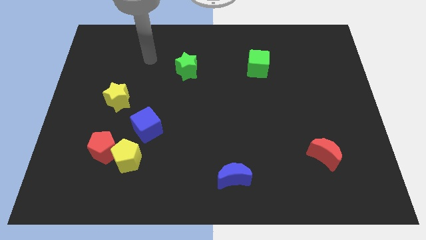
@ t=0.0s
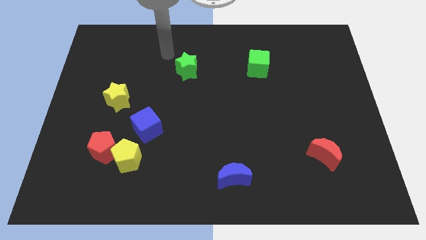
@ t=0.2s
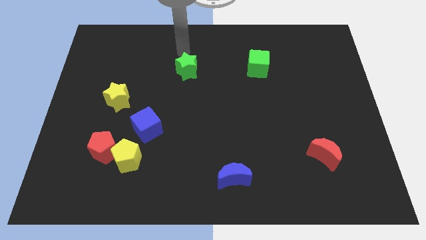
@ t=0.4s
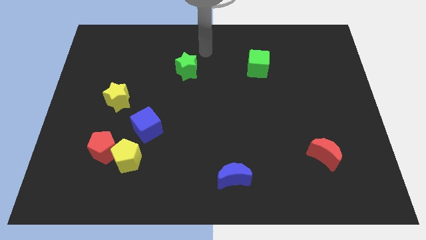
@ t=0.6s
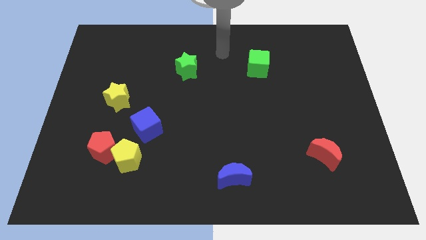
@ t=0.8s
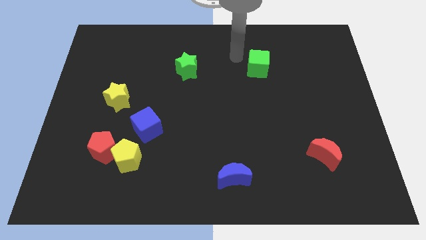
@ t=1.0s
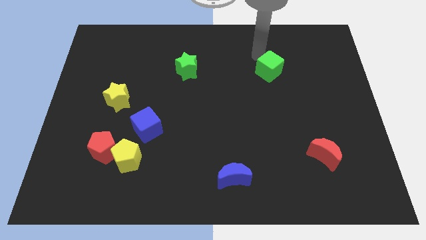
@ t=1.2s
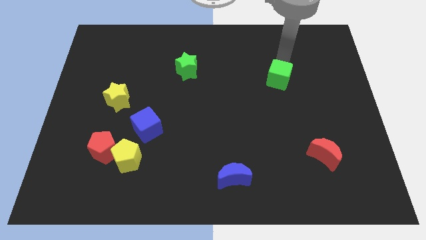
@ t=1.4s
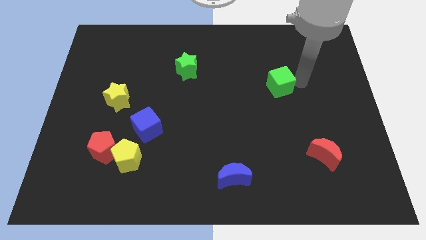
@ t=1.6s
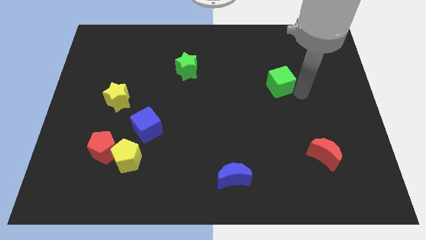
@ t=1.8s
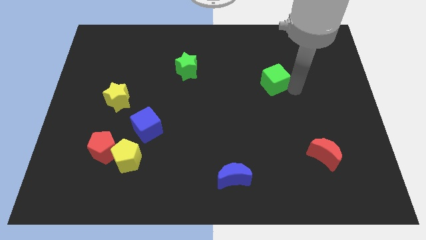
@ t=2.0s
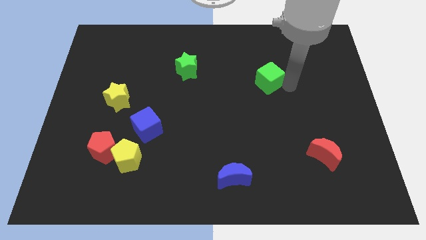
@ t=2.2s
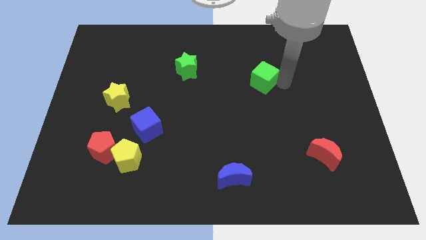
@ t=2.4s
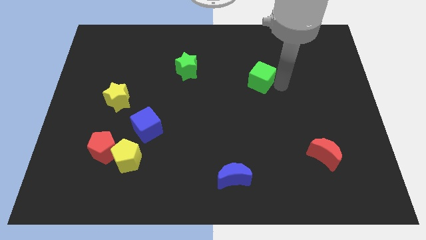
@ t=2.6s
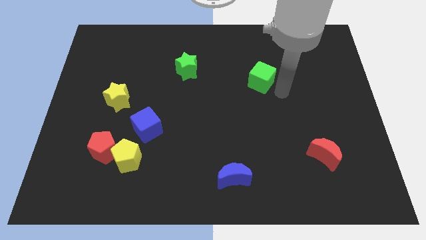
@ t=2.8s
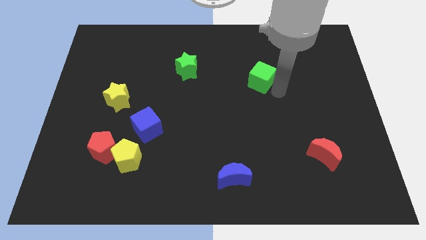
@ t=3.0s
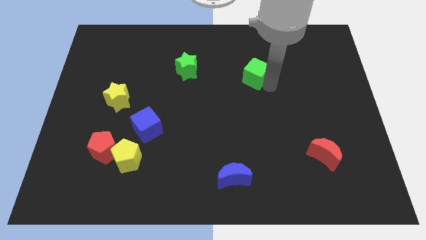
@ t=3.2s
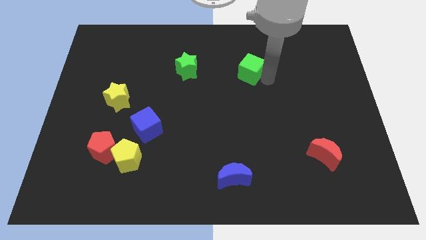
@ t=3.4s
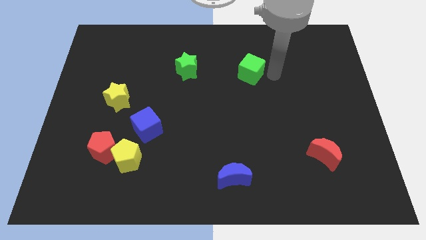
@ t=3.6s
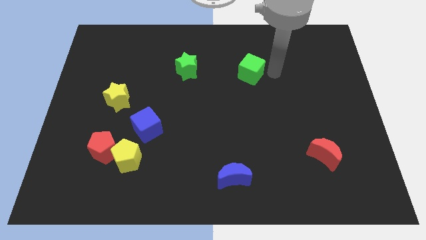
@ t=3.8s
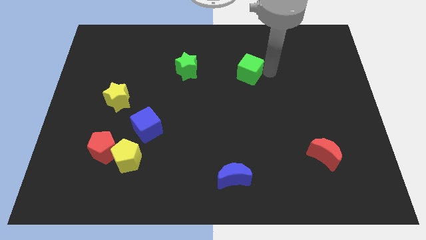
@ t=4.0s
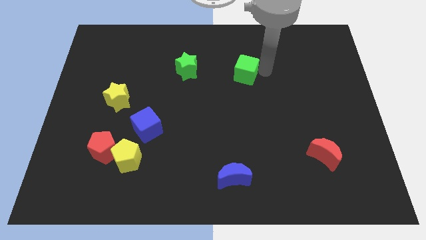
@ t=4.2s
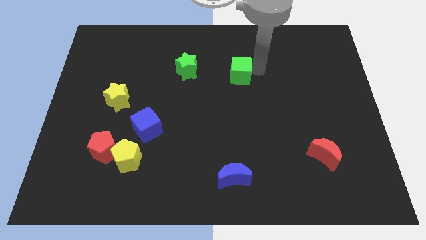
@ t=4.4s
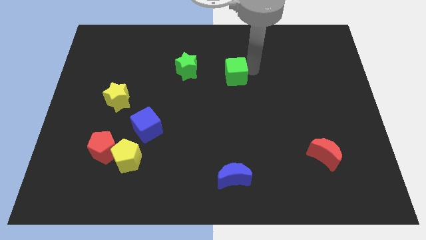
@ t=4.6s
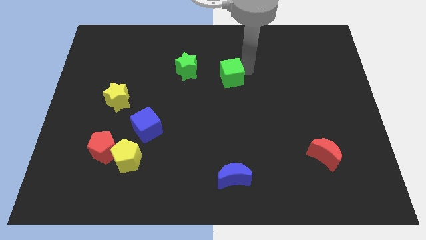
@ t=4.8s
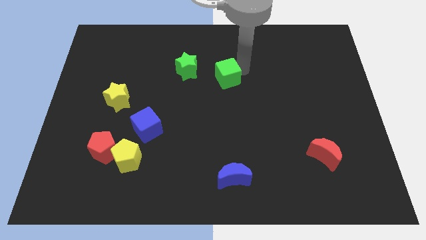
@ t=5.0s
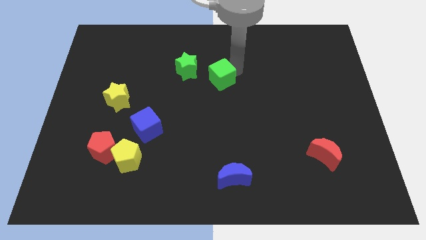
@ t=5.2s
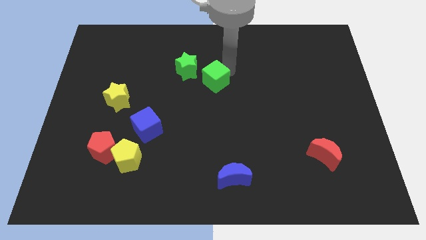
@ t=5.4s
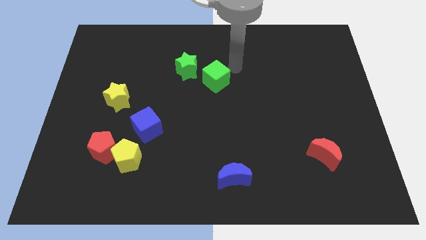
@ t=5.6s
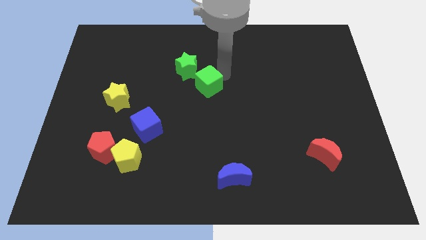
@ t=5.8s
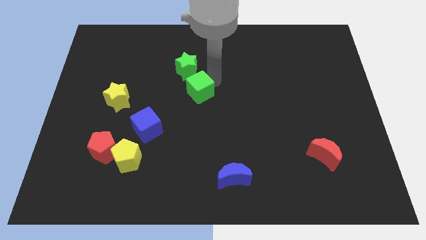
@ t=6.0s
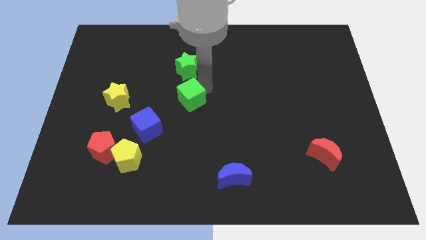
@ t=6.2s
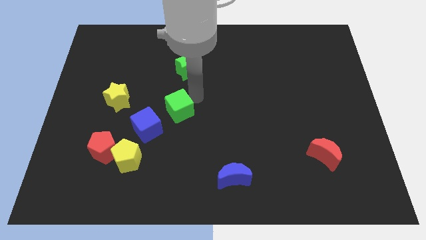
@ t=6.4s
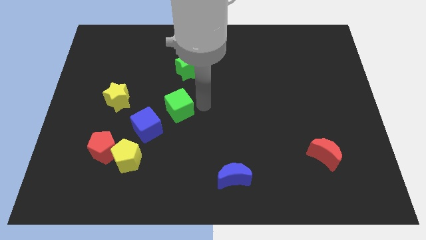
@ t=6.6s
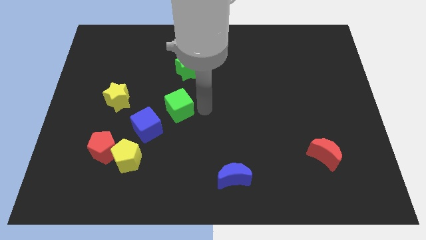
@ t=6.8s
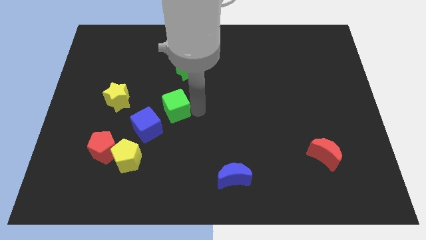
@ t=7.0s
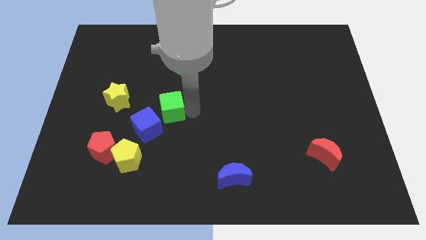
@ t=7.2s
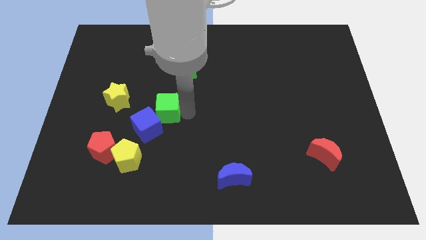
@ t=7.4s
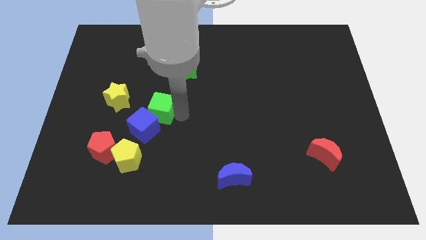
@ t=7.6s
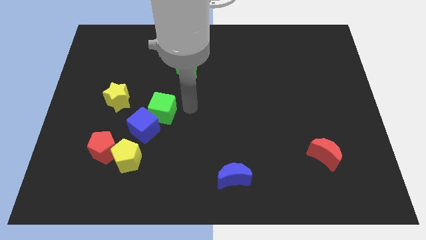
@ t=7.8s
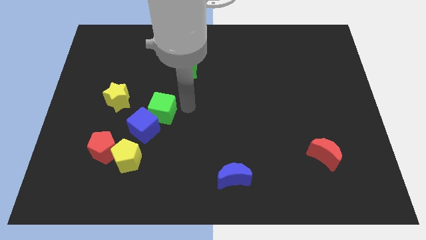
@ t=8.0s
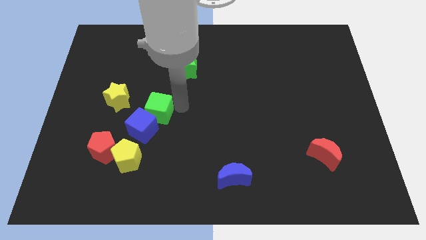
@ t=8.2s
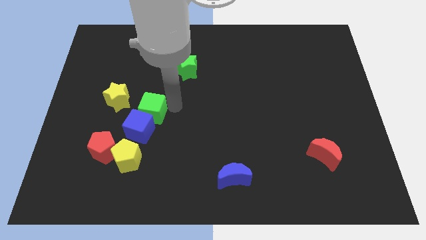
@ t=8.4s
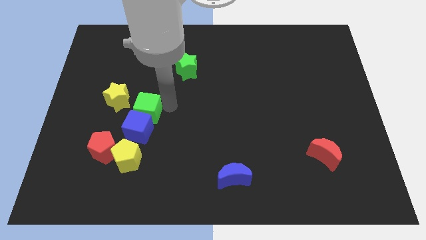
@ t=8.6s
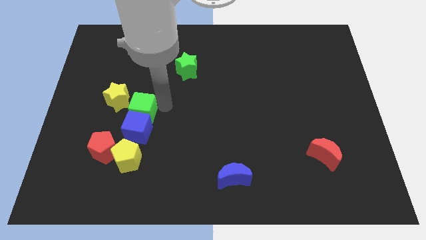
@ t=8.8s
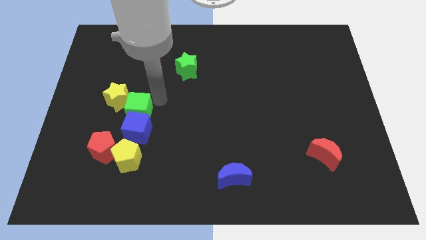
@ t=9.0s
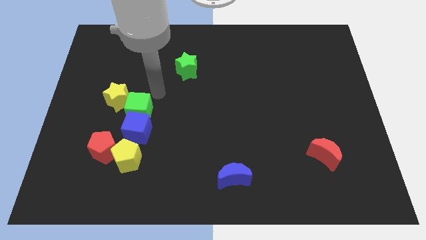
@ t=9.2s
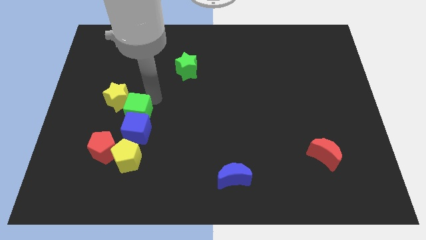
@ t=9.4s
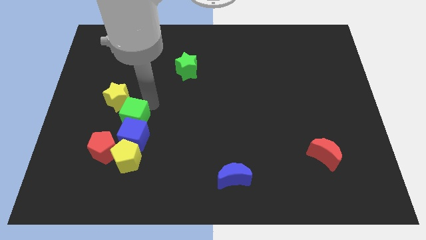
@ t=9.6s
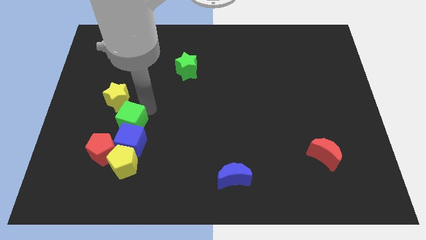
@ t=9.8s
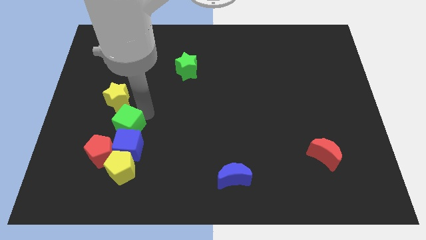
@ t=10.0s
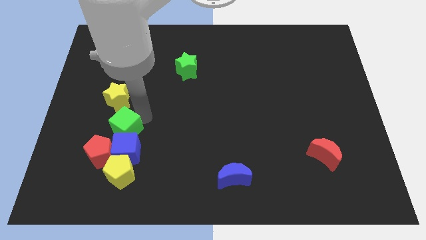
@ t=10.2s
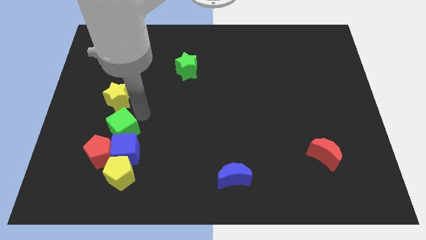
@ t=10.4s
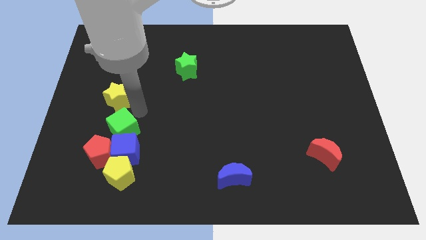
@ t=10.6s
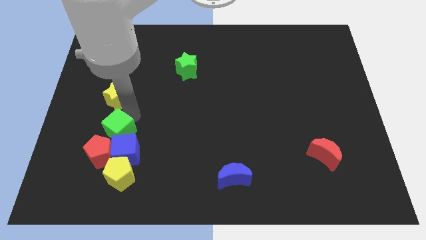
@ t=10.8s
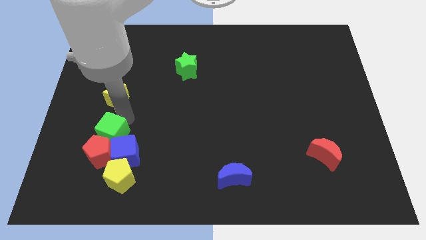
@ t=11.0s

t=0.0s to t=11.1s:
push the green cube to the red pentagon

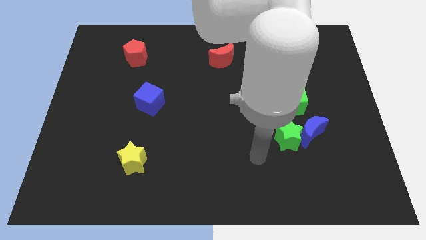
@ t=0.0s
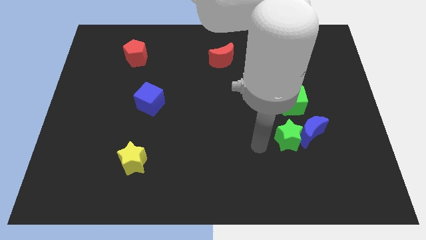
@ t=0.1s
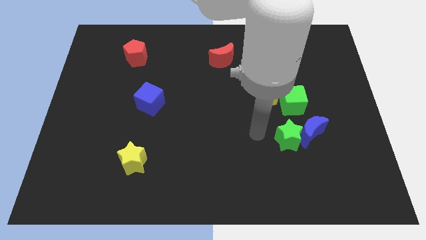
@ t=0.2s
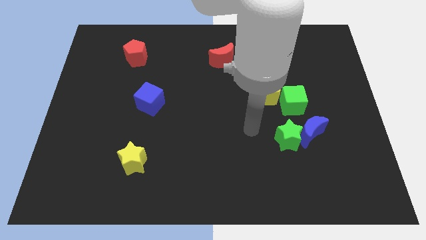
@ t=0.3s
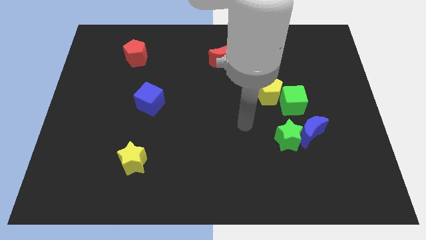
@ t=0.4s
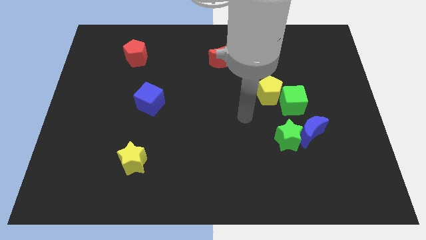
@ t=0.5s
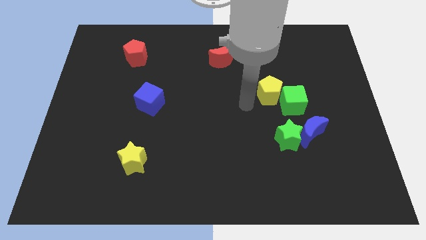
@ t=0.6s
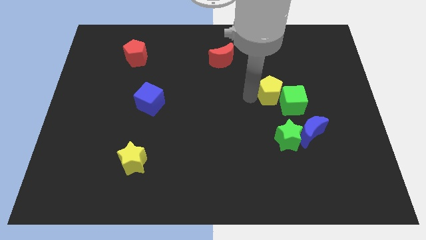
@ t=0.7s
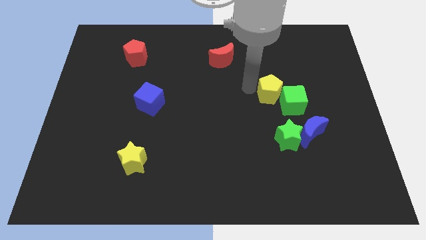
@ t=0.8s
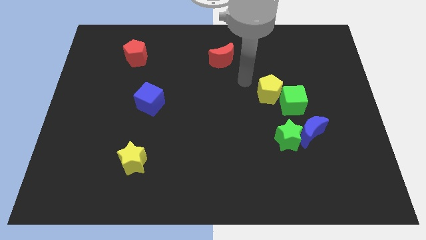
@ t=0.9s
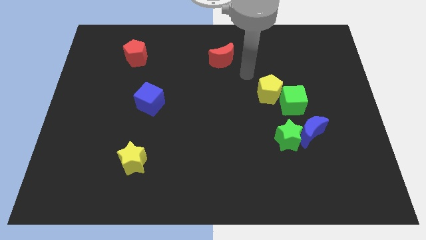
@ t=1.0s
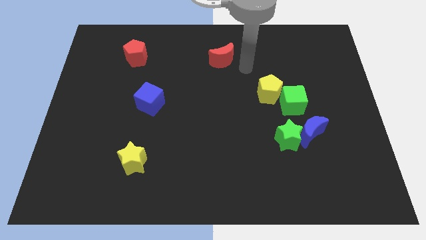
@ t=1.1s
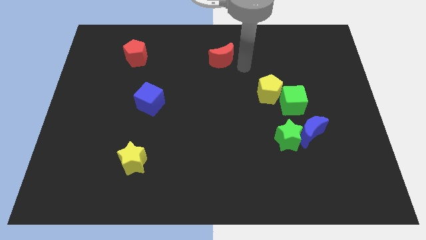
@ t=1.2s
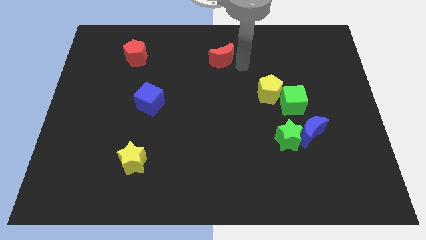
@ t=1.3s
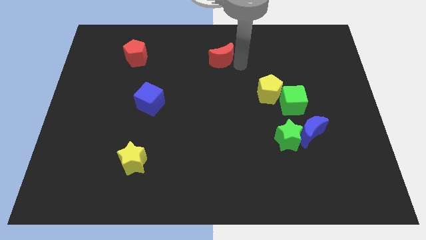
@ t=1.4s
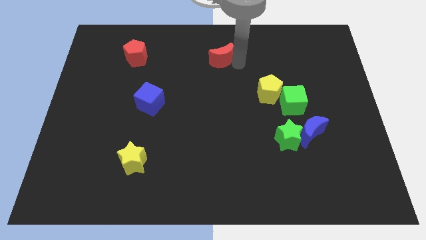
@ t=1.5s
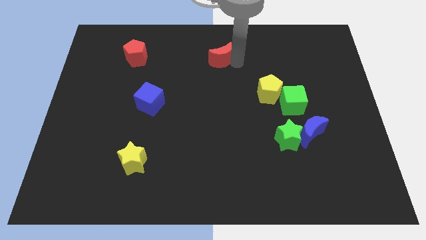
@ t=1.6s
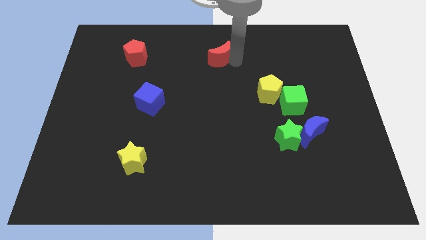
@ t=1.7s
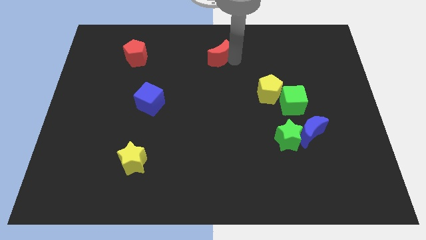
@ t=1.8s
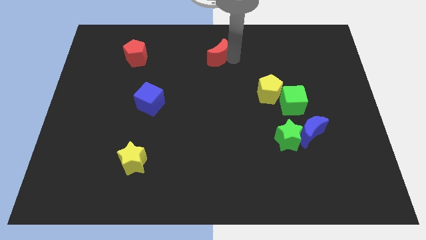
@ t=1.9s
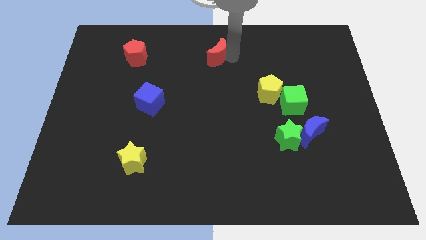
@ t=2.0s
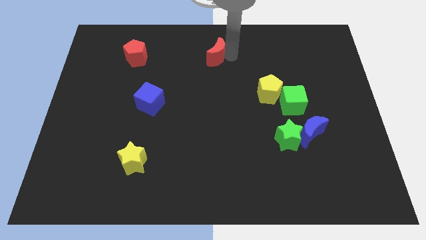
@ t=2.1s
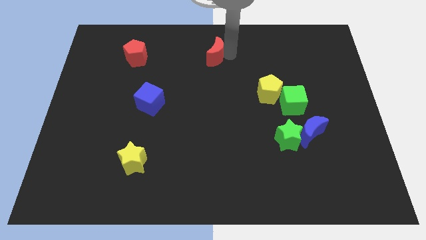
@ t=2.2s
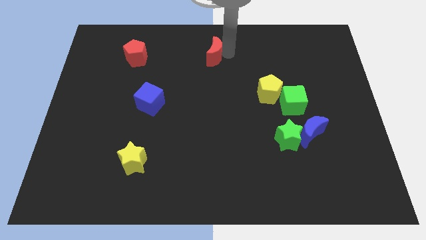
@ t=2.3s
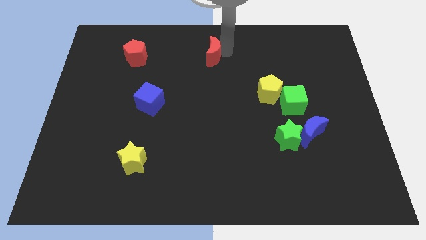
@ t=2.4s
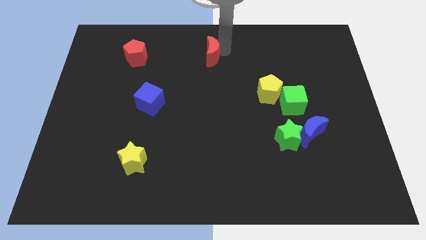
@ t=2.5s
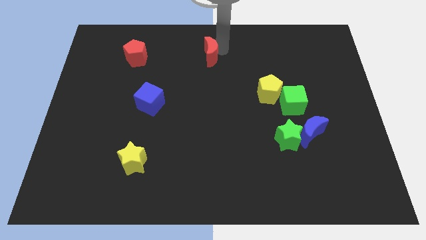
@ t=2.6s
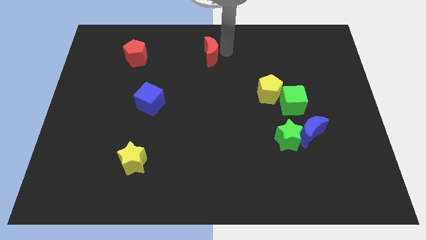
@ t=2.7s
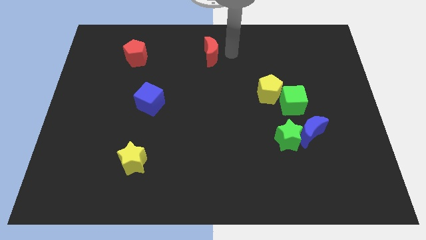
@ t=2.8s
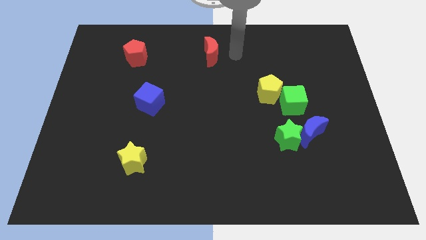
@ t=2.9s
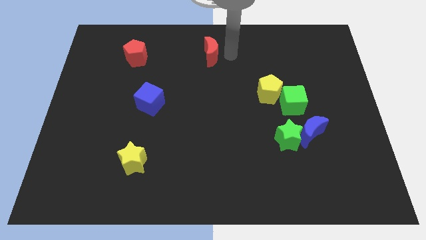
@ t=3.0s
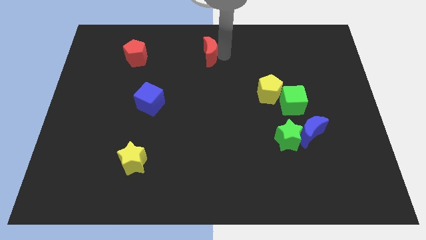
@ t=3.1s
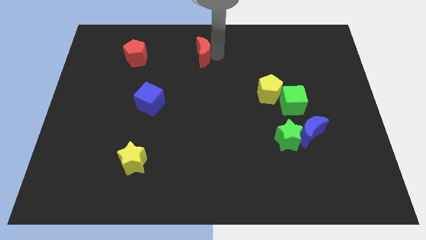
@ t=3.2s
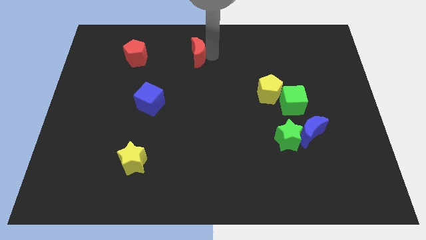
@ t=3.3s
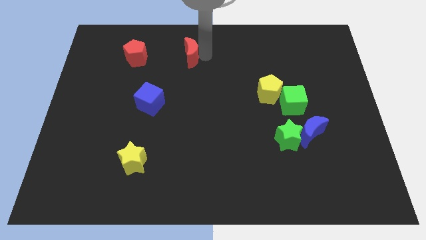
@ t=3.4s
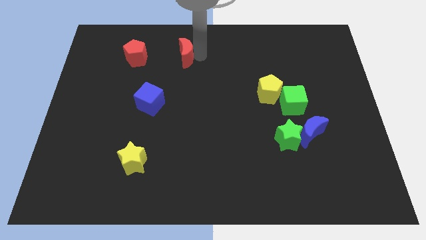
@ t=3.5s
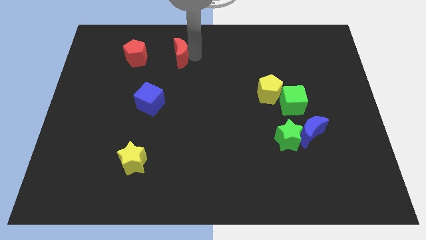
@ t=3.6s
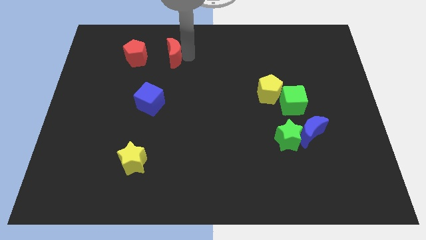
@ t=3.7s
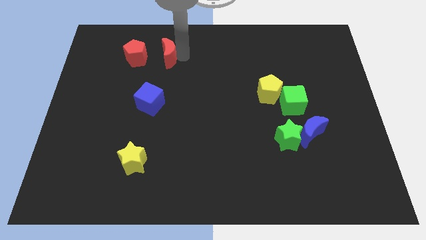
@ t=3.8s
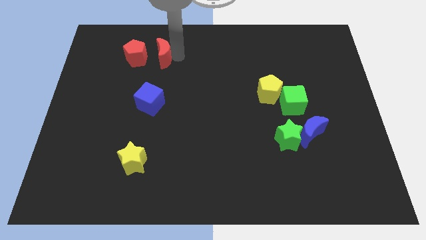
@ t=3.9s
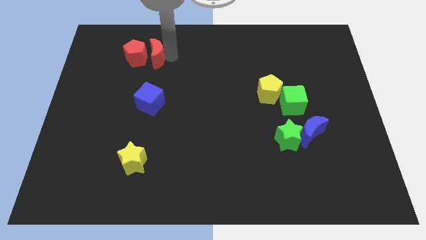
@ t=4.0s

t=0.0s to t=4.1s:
move the red moon next to the red pentagon
